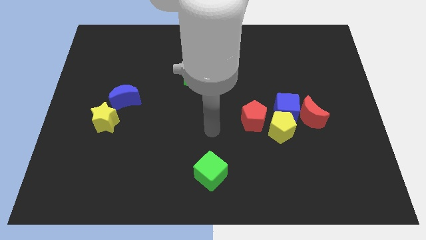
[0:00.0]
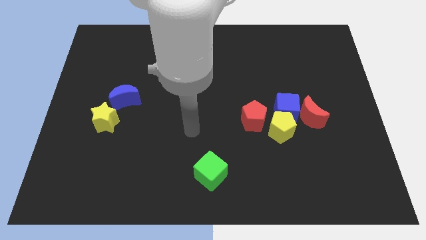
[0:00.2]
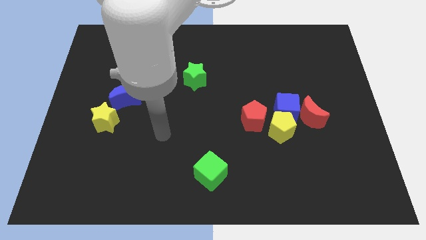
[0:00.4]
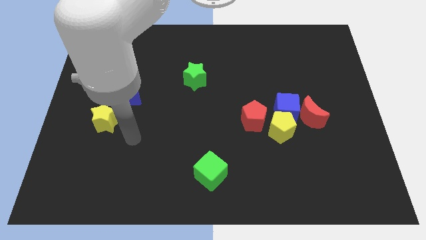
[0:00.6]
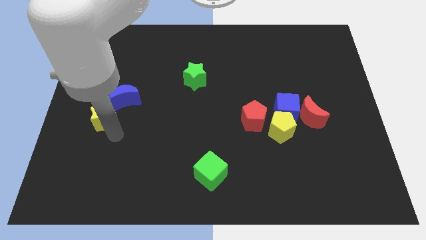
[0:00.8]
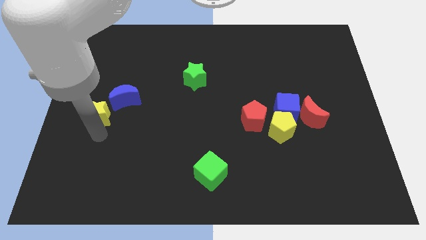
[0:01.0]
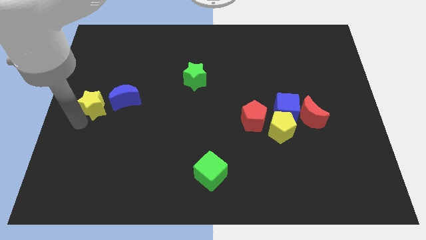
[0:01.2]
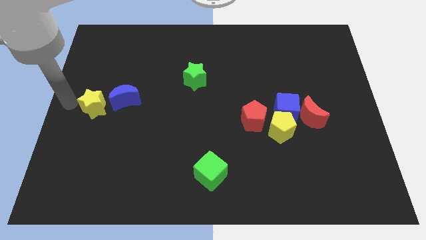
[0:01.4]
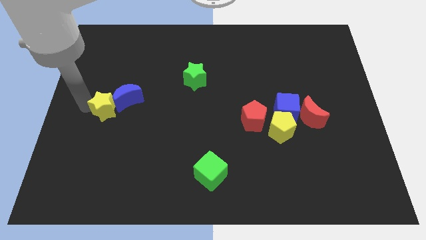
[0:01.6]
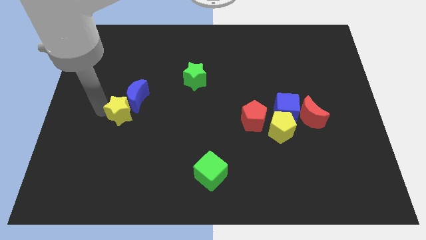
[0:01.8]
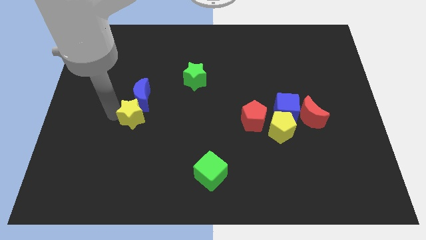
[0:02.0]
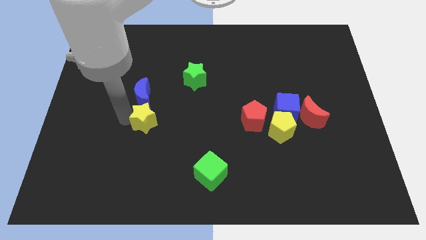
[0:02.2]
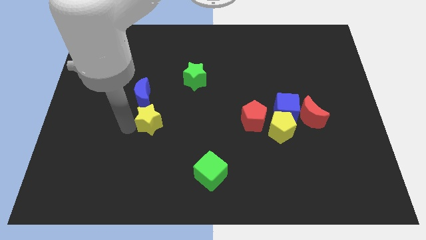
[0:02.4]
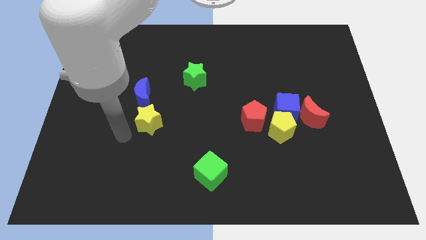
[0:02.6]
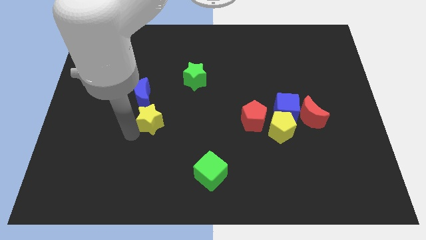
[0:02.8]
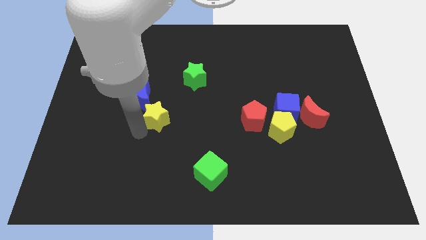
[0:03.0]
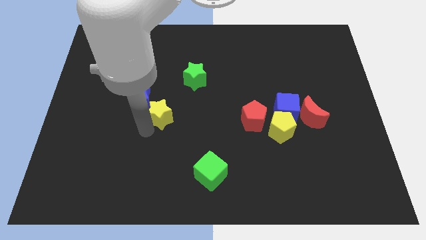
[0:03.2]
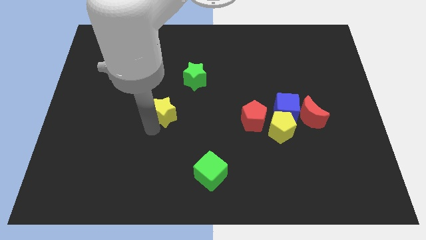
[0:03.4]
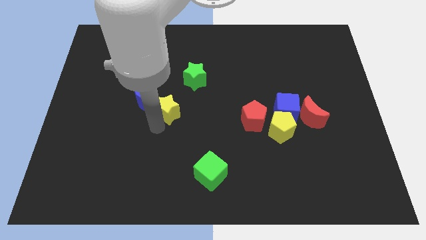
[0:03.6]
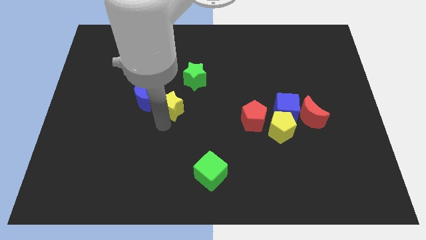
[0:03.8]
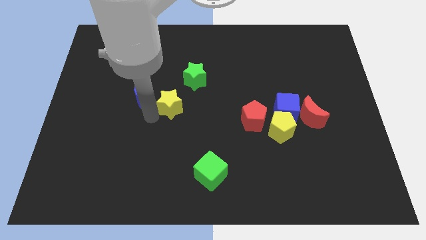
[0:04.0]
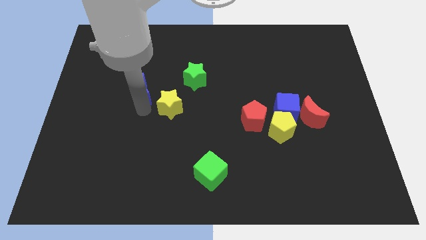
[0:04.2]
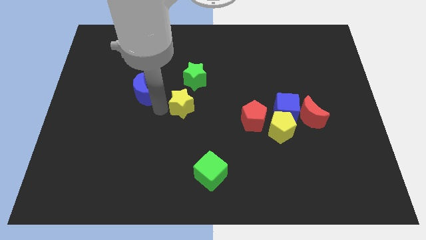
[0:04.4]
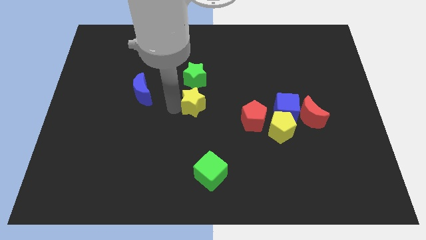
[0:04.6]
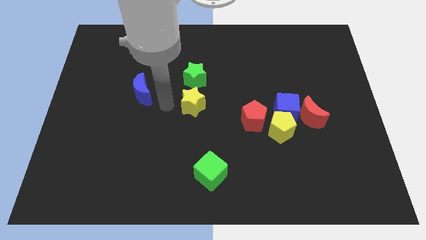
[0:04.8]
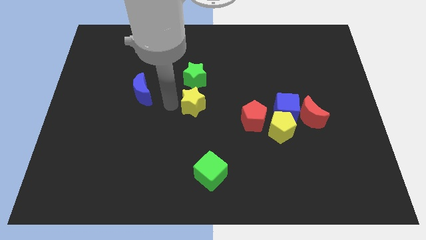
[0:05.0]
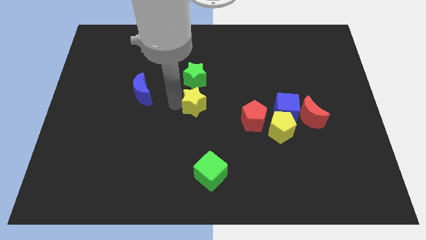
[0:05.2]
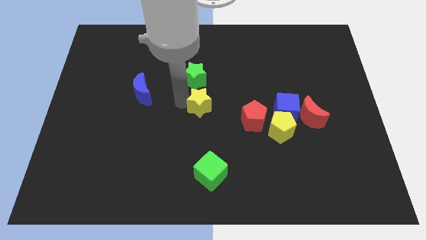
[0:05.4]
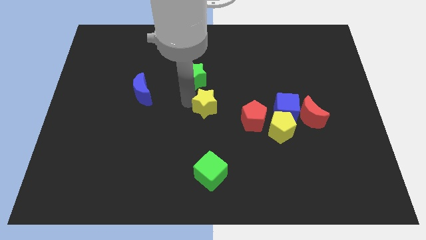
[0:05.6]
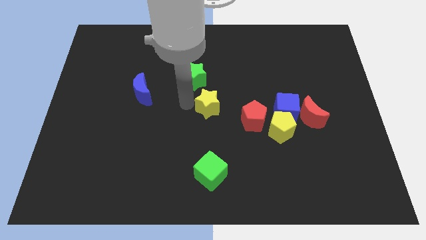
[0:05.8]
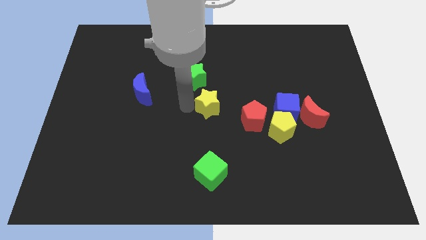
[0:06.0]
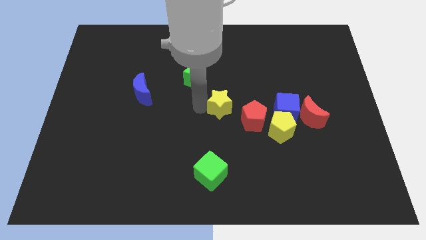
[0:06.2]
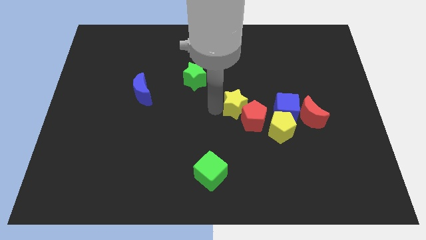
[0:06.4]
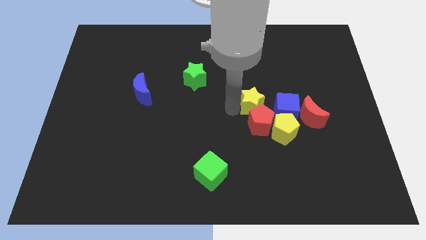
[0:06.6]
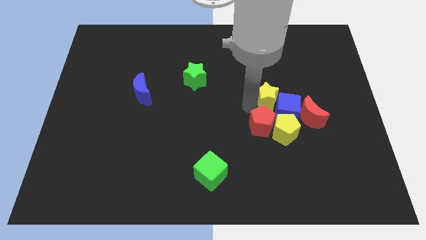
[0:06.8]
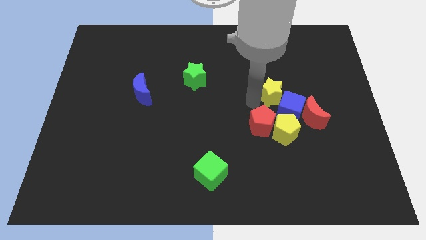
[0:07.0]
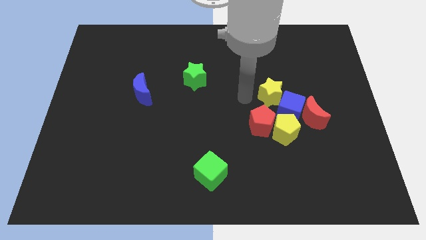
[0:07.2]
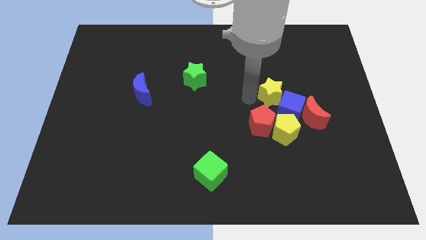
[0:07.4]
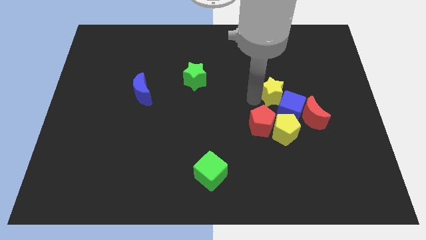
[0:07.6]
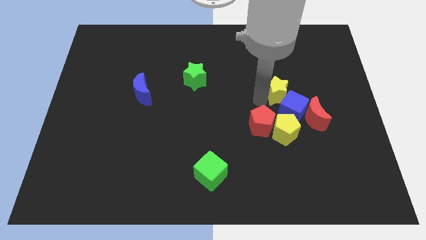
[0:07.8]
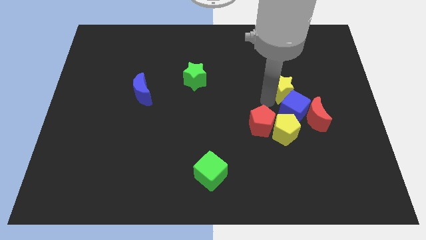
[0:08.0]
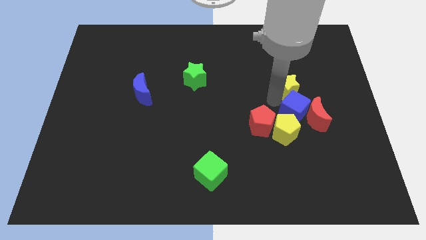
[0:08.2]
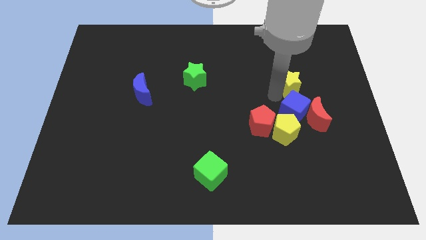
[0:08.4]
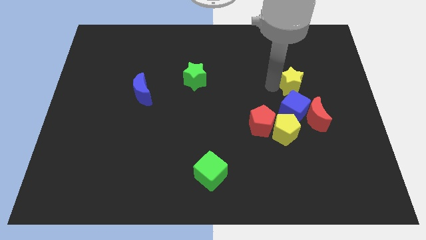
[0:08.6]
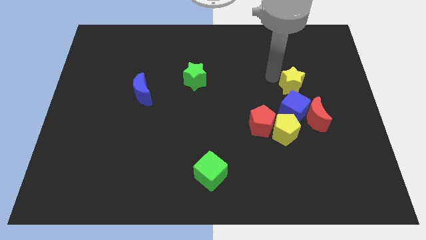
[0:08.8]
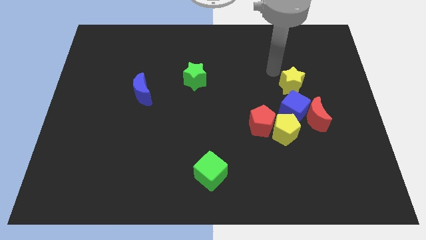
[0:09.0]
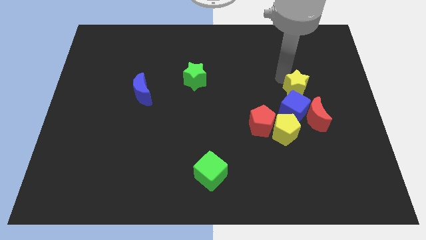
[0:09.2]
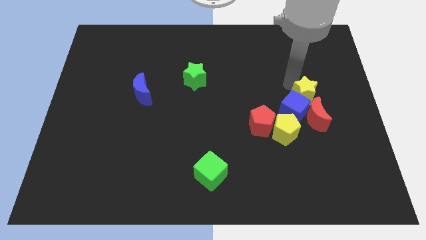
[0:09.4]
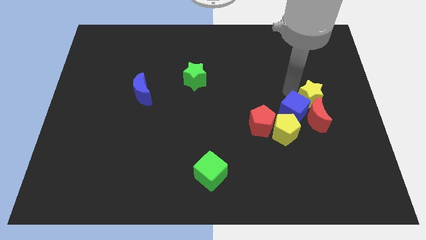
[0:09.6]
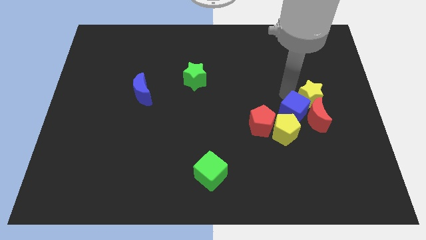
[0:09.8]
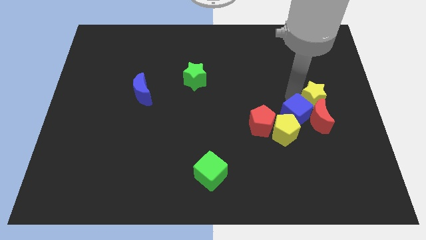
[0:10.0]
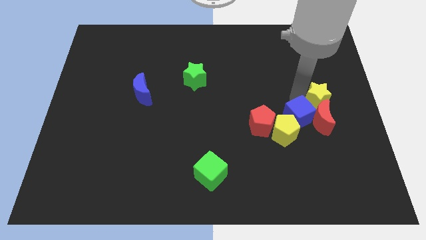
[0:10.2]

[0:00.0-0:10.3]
slide the yellow star to the center right

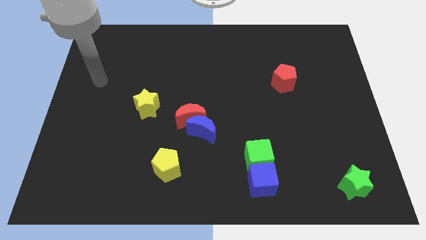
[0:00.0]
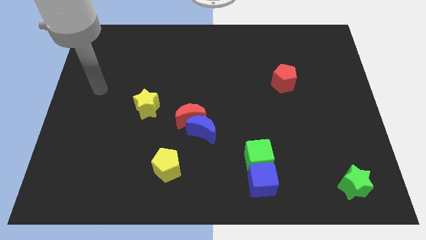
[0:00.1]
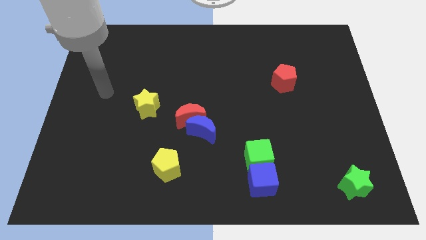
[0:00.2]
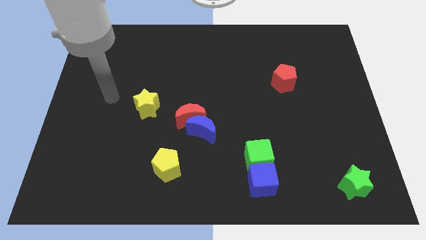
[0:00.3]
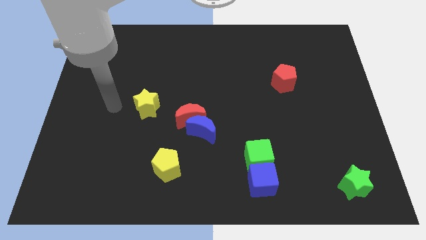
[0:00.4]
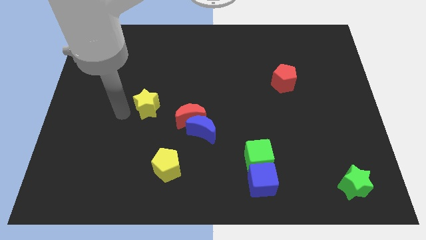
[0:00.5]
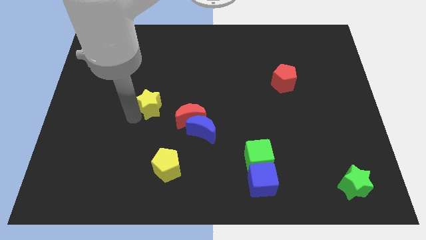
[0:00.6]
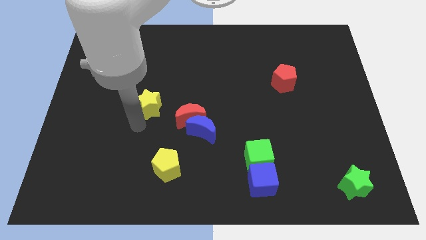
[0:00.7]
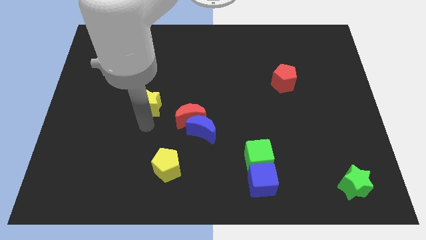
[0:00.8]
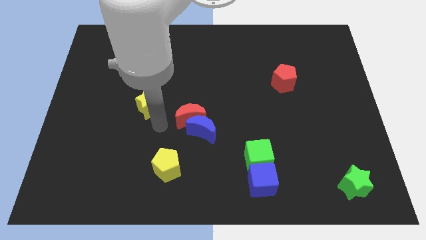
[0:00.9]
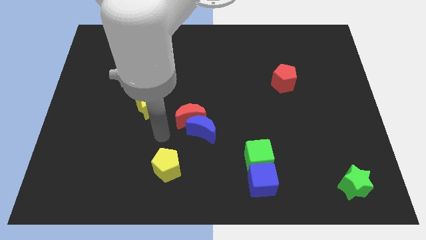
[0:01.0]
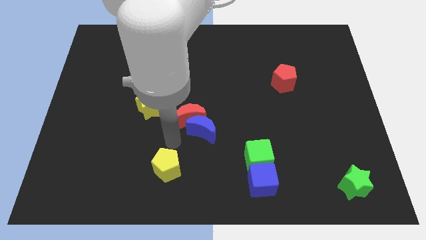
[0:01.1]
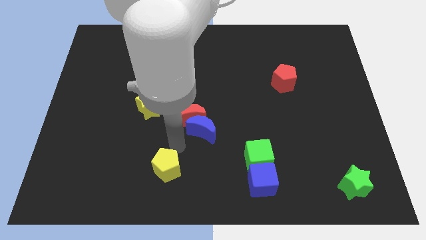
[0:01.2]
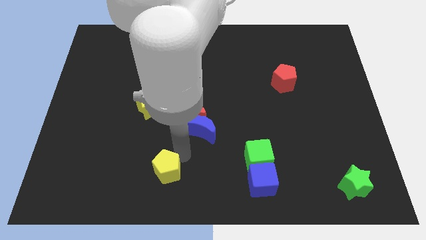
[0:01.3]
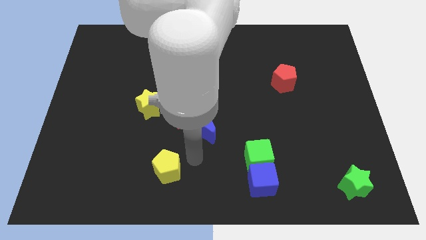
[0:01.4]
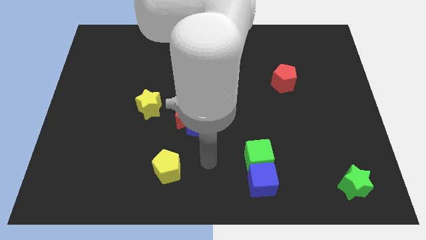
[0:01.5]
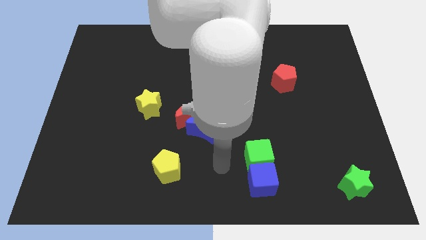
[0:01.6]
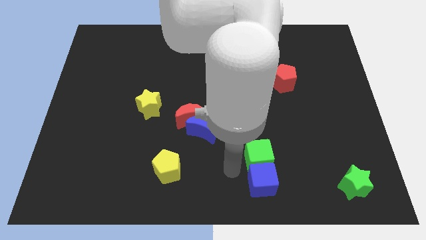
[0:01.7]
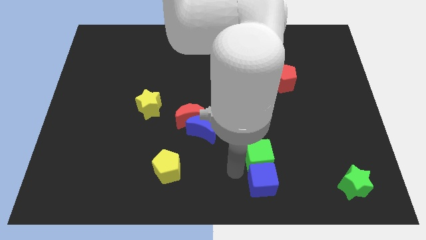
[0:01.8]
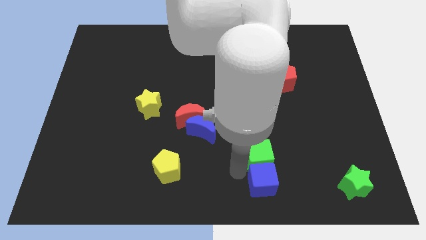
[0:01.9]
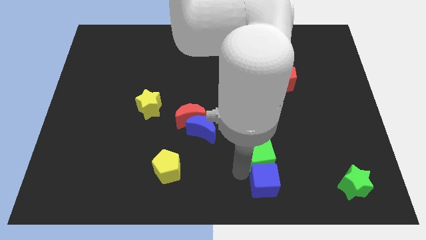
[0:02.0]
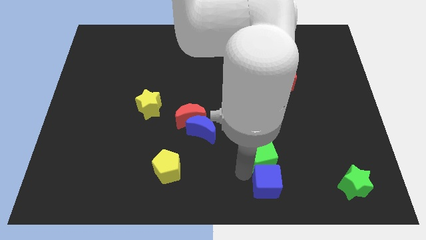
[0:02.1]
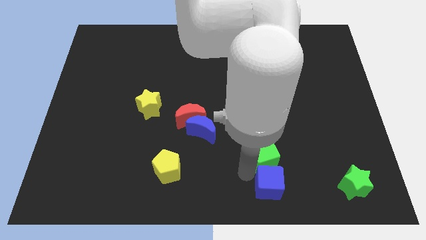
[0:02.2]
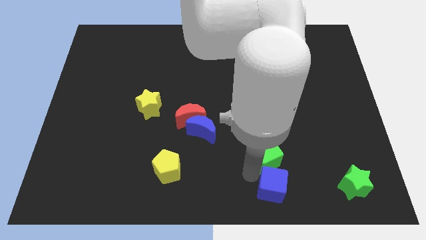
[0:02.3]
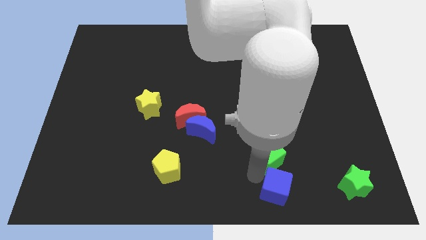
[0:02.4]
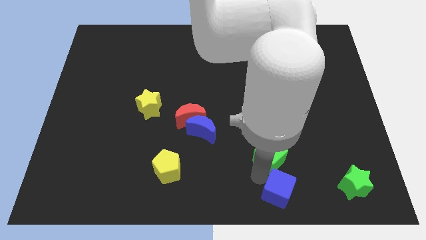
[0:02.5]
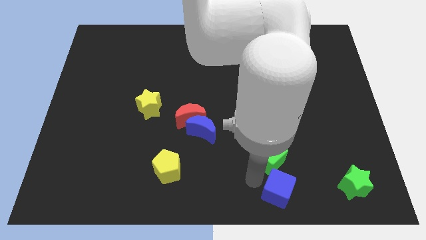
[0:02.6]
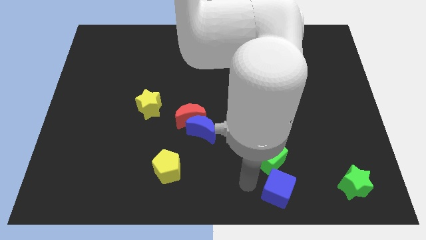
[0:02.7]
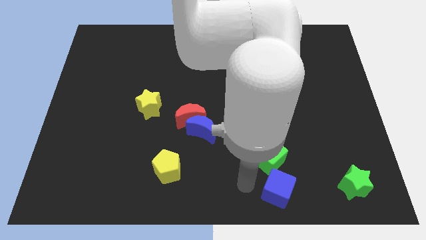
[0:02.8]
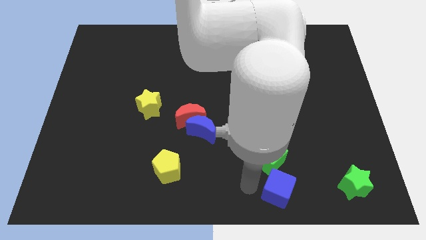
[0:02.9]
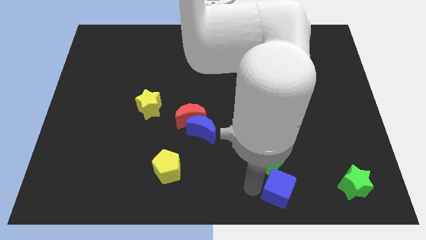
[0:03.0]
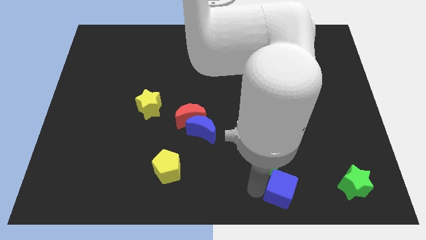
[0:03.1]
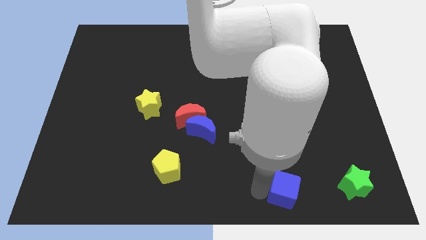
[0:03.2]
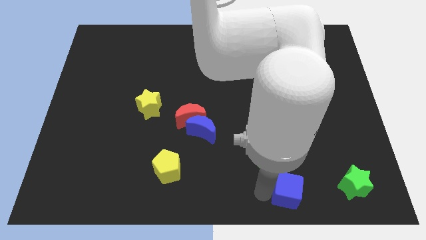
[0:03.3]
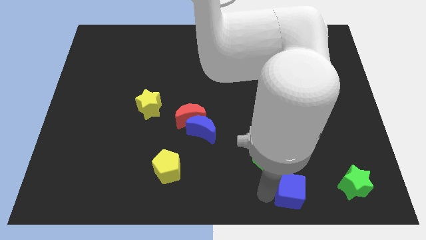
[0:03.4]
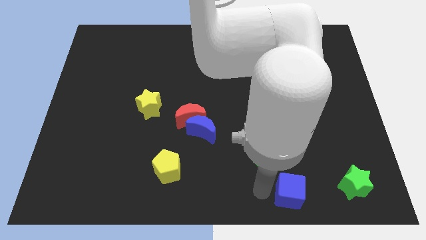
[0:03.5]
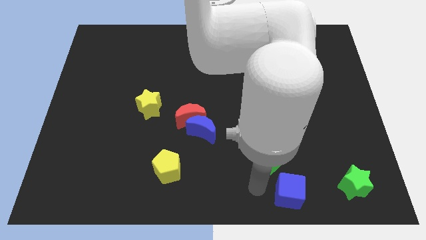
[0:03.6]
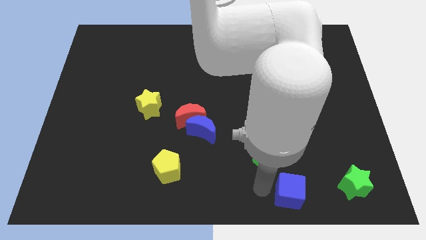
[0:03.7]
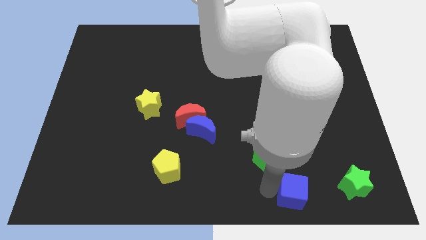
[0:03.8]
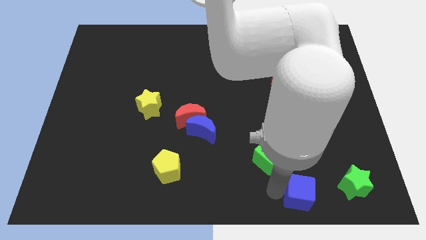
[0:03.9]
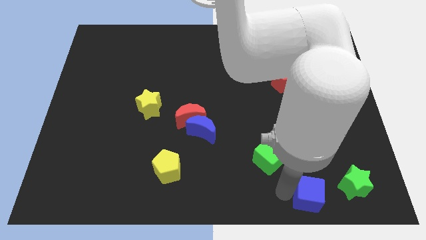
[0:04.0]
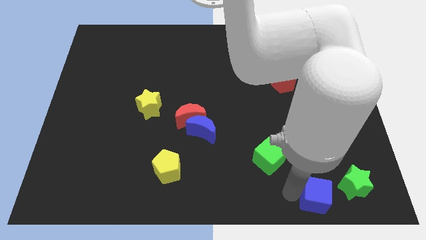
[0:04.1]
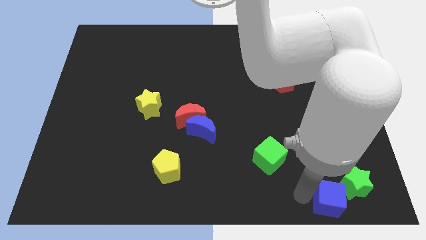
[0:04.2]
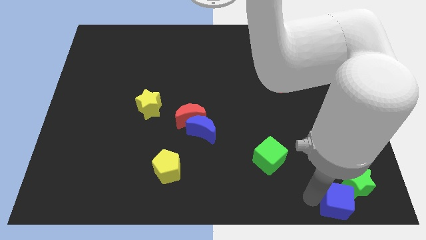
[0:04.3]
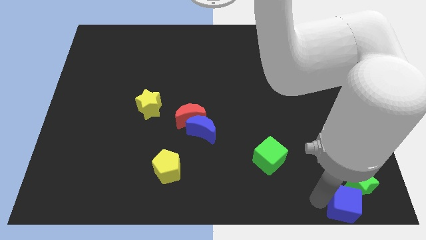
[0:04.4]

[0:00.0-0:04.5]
push the blue cube to the bottom right
